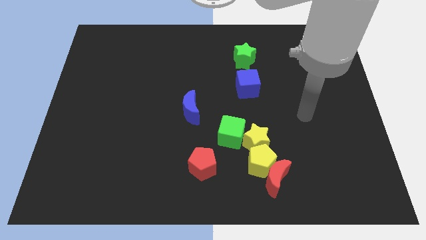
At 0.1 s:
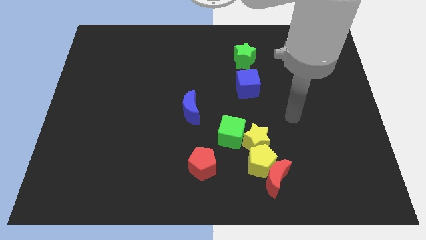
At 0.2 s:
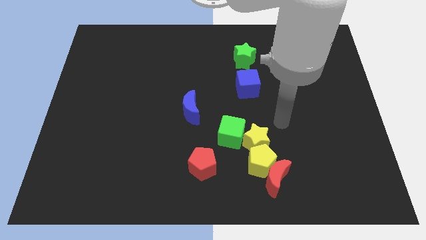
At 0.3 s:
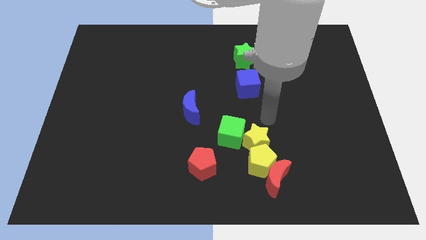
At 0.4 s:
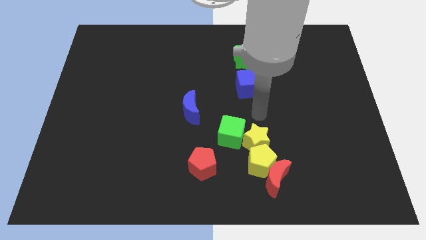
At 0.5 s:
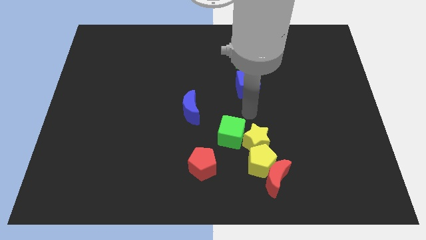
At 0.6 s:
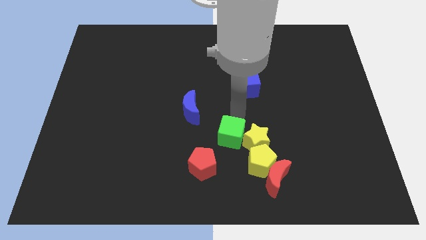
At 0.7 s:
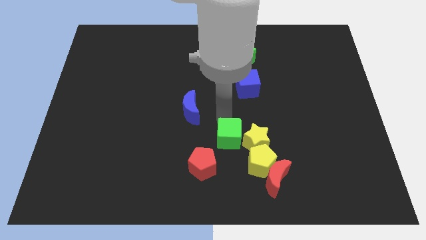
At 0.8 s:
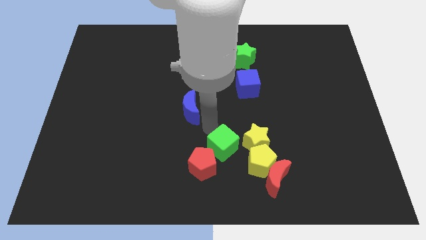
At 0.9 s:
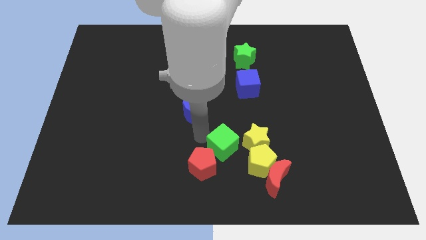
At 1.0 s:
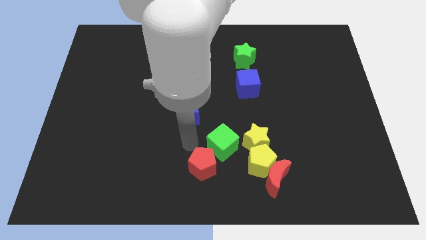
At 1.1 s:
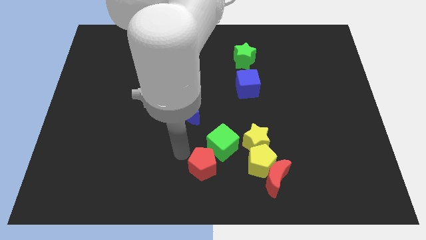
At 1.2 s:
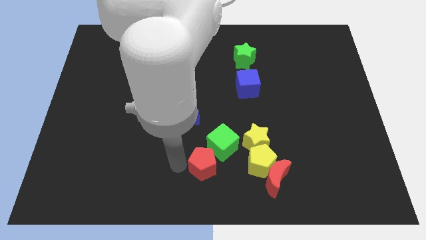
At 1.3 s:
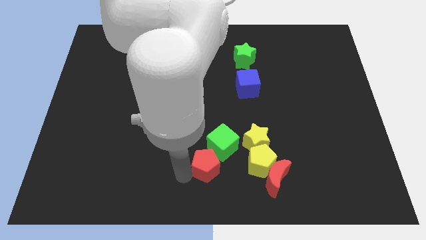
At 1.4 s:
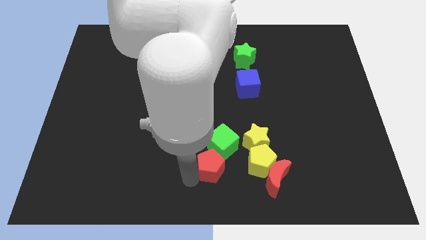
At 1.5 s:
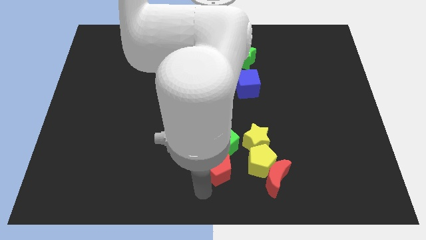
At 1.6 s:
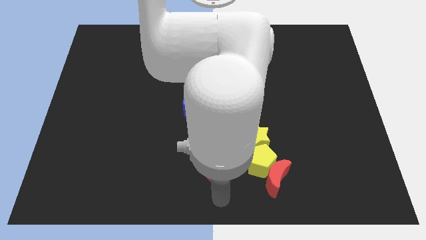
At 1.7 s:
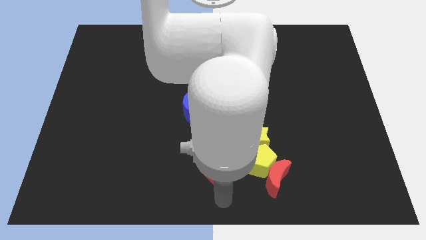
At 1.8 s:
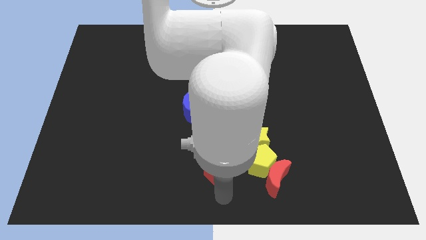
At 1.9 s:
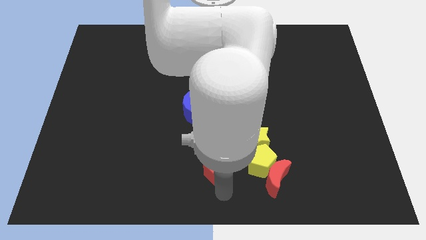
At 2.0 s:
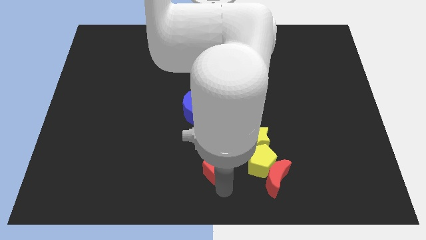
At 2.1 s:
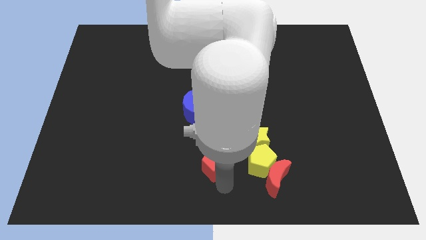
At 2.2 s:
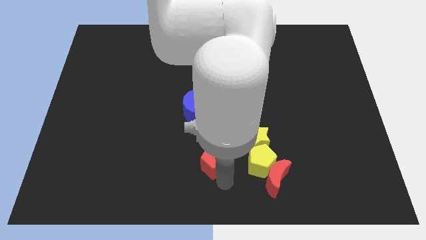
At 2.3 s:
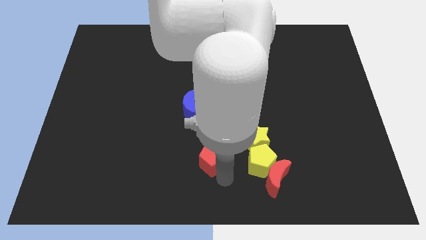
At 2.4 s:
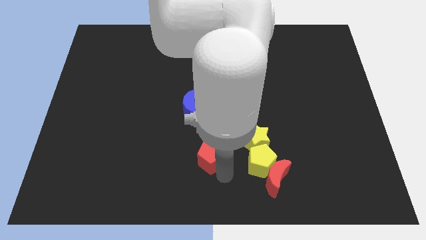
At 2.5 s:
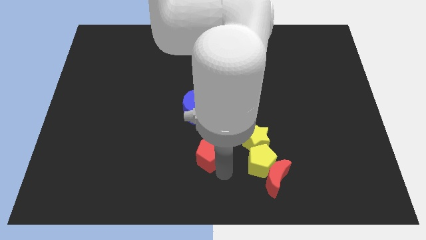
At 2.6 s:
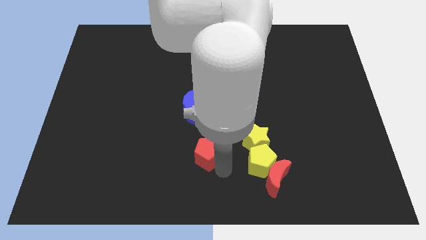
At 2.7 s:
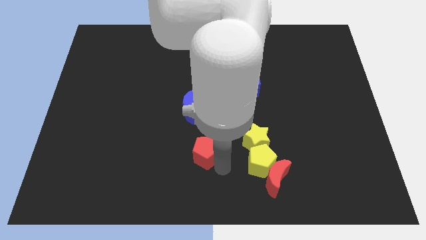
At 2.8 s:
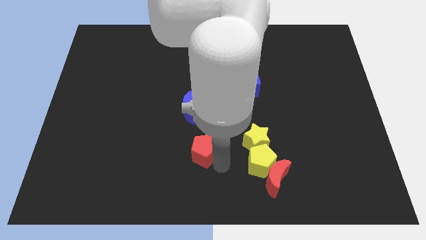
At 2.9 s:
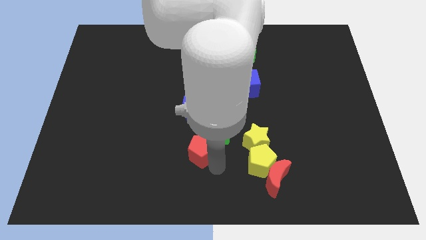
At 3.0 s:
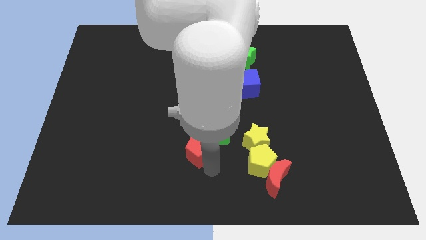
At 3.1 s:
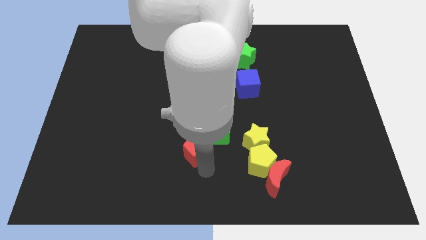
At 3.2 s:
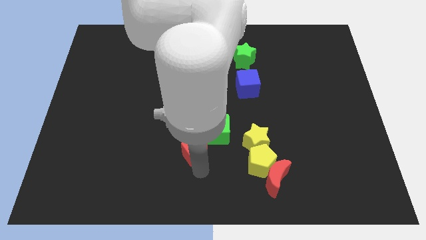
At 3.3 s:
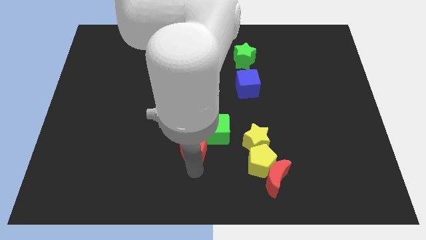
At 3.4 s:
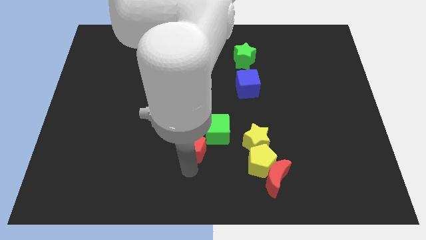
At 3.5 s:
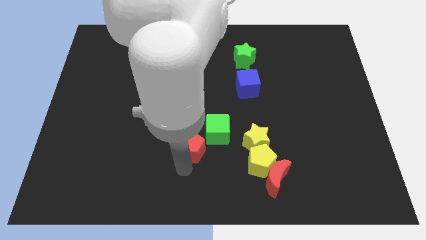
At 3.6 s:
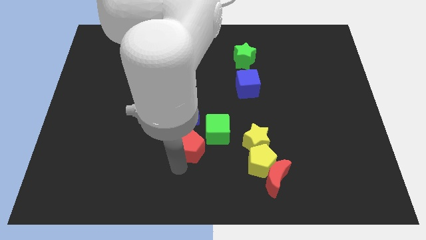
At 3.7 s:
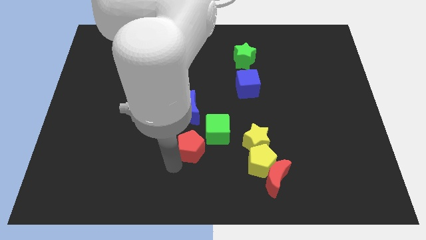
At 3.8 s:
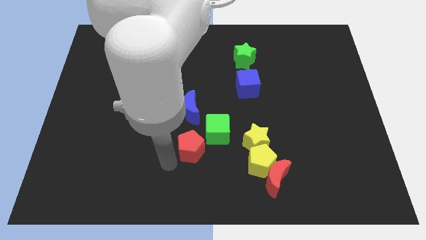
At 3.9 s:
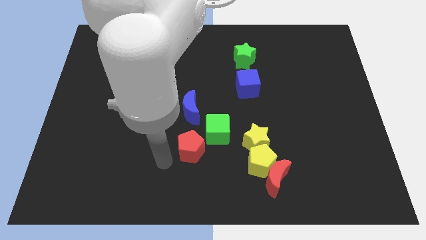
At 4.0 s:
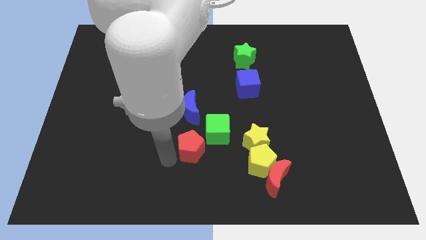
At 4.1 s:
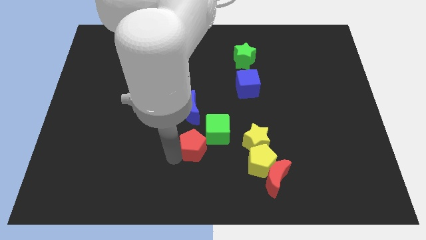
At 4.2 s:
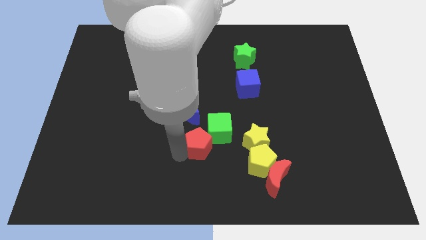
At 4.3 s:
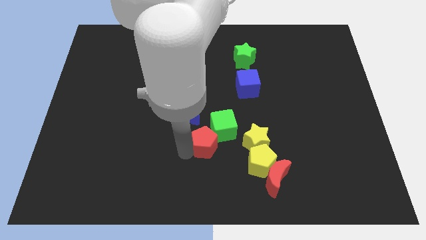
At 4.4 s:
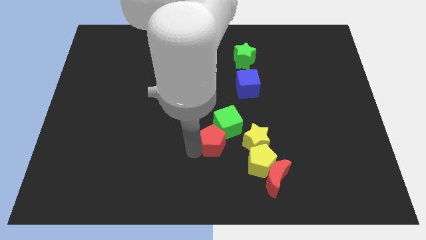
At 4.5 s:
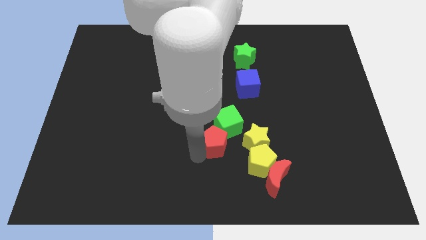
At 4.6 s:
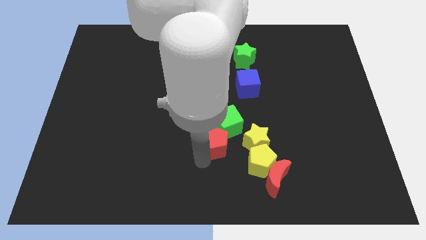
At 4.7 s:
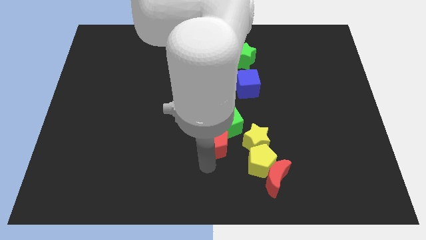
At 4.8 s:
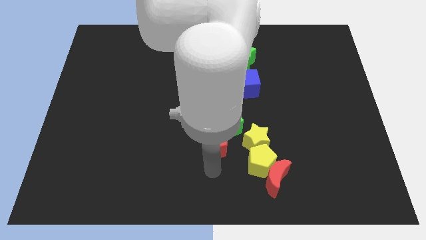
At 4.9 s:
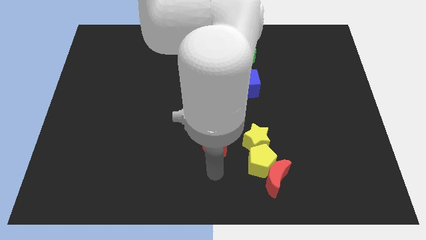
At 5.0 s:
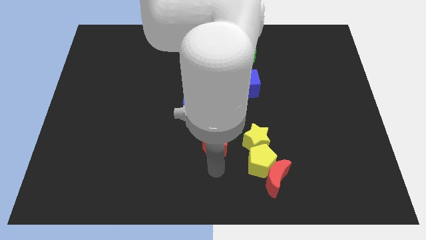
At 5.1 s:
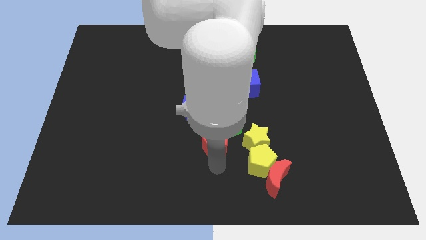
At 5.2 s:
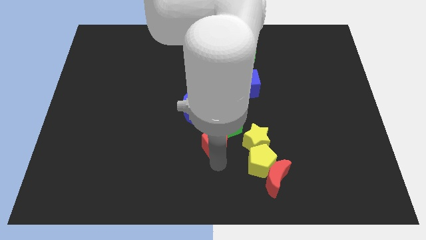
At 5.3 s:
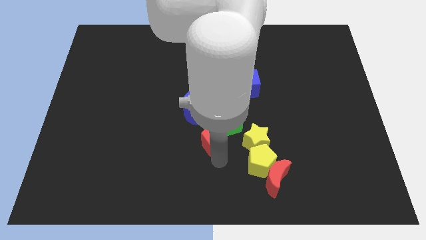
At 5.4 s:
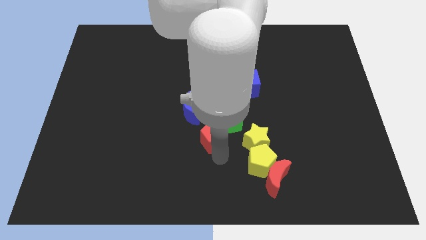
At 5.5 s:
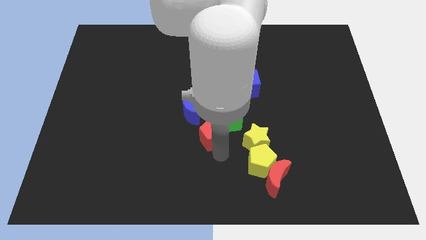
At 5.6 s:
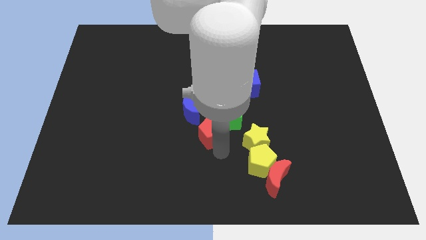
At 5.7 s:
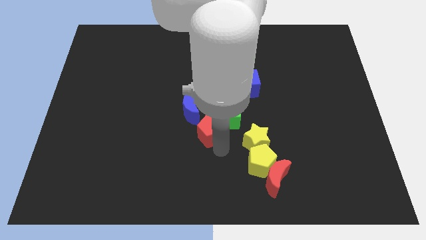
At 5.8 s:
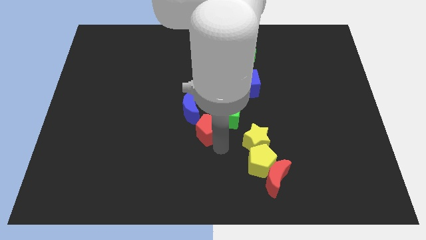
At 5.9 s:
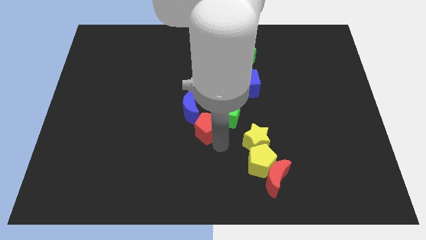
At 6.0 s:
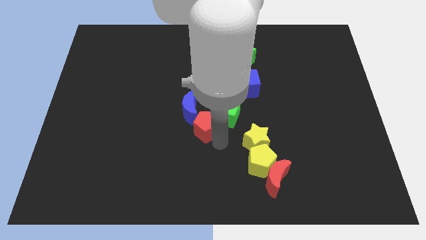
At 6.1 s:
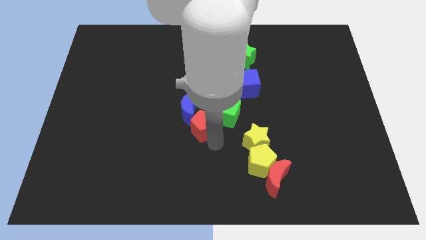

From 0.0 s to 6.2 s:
push the red pentagon to the right side of the blue moon

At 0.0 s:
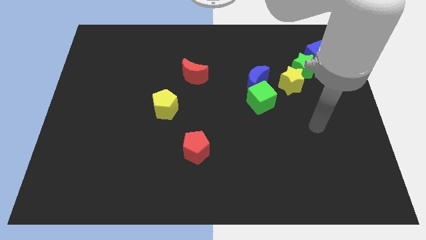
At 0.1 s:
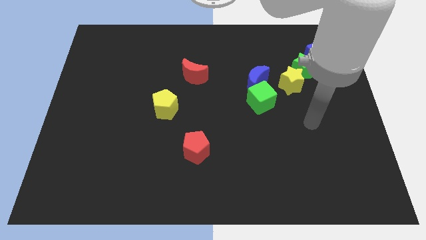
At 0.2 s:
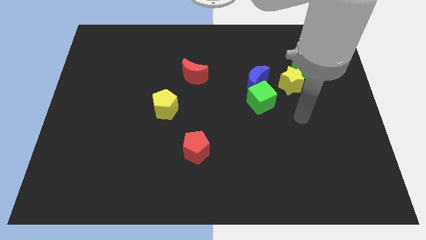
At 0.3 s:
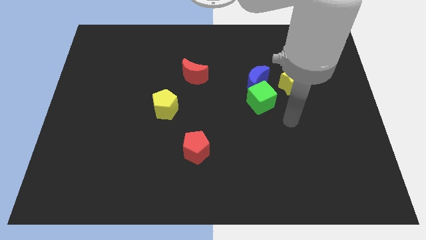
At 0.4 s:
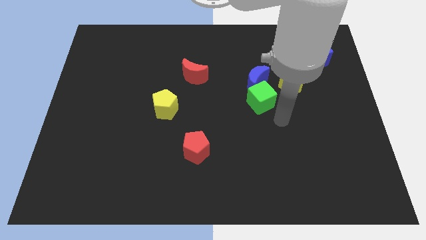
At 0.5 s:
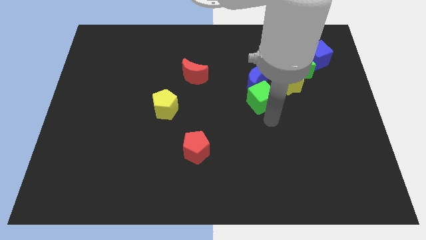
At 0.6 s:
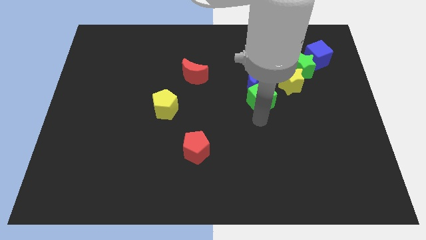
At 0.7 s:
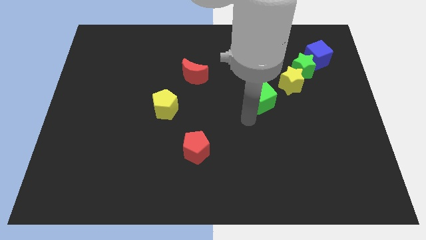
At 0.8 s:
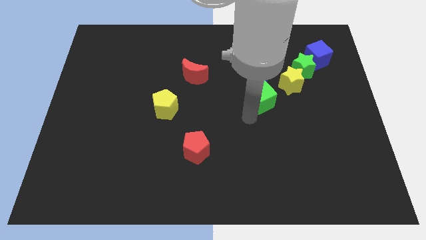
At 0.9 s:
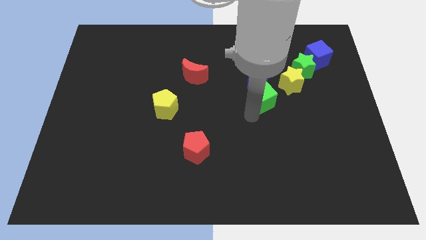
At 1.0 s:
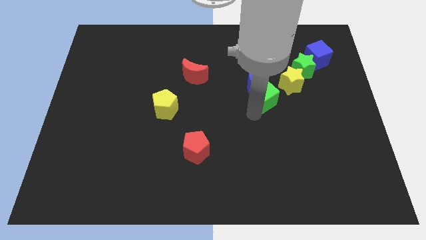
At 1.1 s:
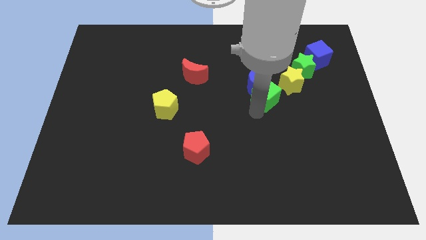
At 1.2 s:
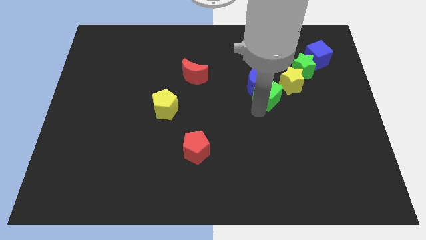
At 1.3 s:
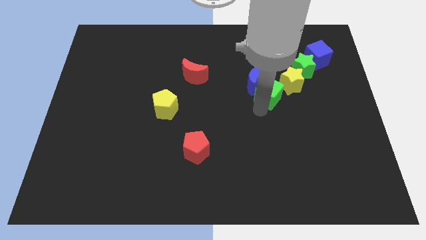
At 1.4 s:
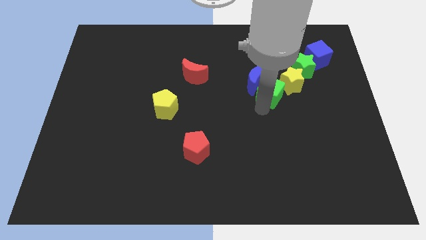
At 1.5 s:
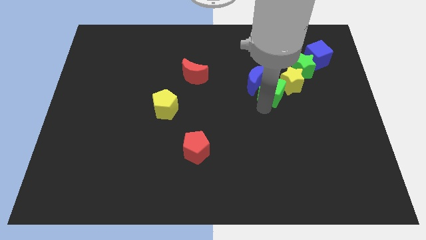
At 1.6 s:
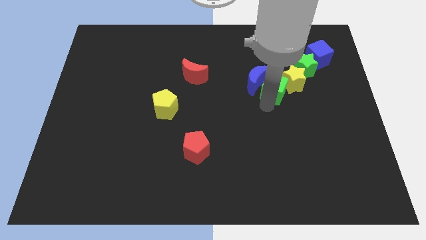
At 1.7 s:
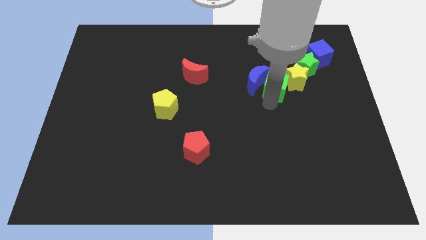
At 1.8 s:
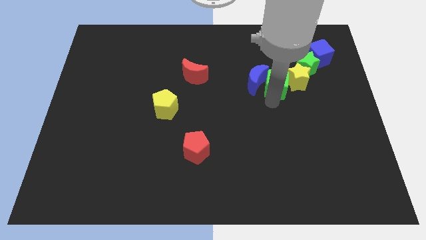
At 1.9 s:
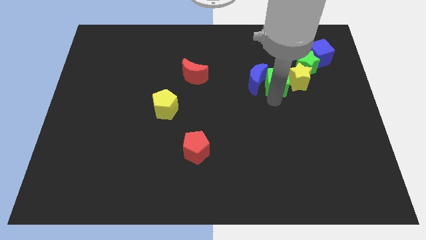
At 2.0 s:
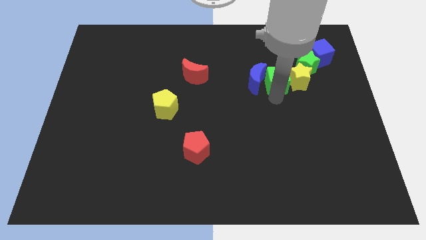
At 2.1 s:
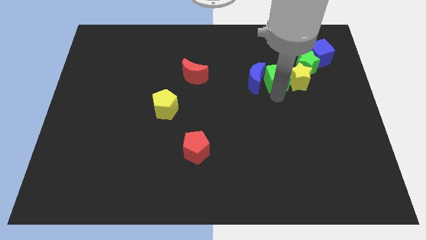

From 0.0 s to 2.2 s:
push the green cube left of the green star
